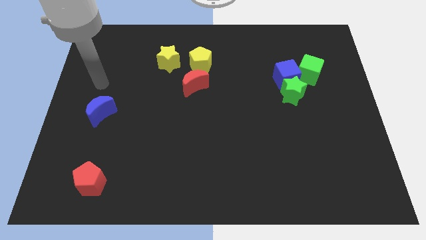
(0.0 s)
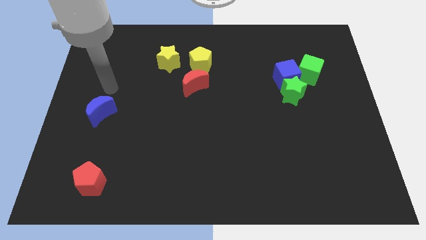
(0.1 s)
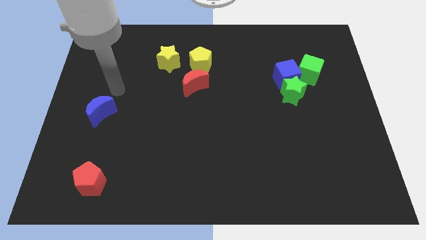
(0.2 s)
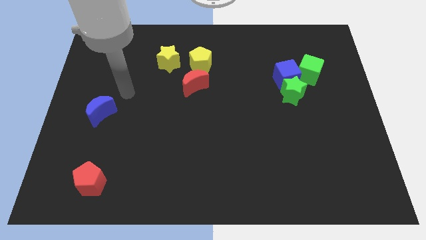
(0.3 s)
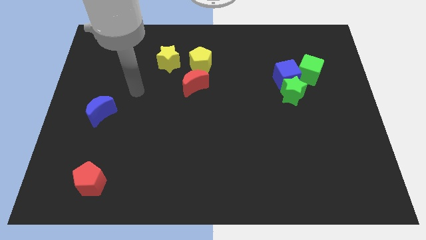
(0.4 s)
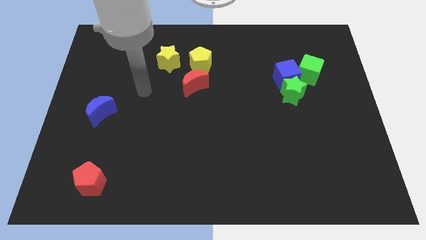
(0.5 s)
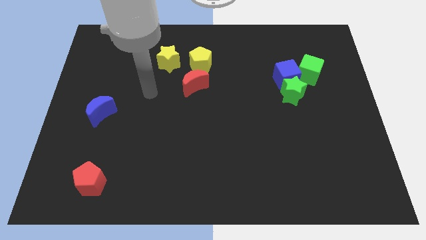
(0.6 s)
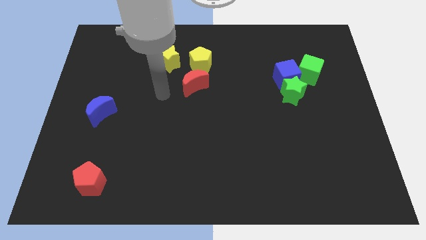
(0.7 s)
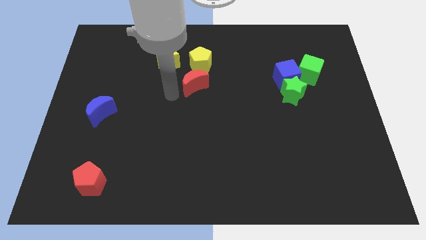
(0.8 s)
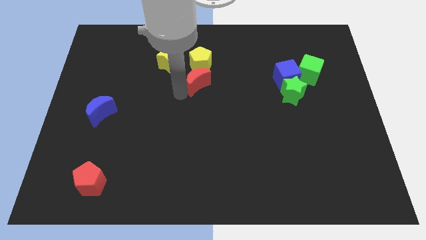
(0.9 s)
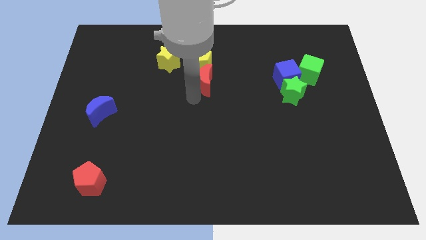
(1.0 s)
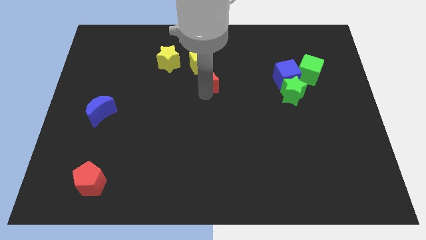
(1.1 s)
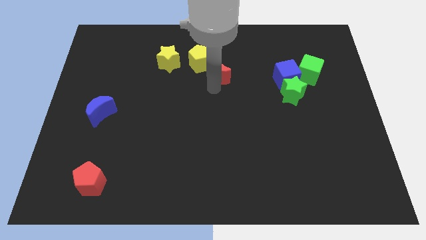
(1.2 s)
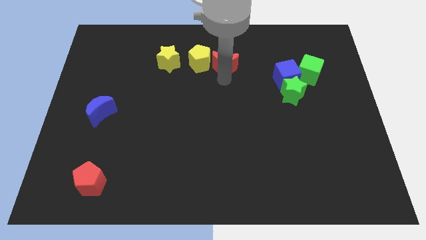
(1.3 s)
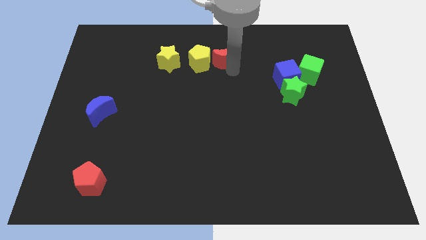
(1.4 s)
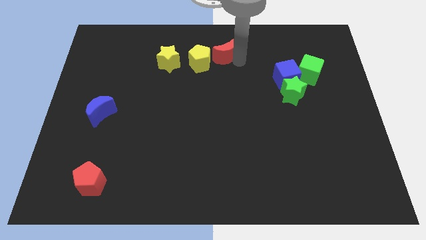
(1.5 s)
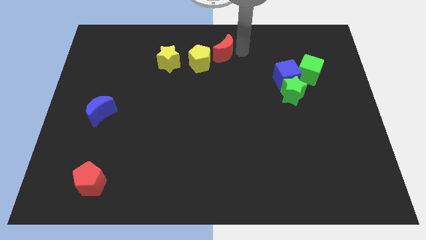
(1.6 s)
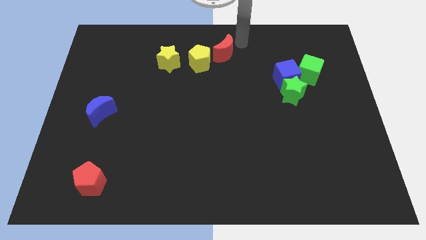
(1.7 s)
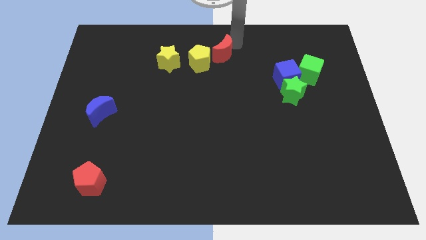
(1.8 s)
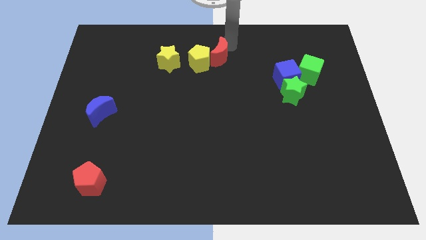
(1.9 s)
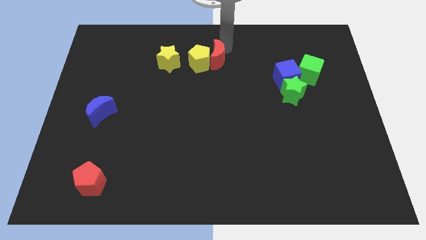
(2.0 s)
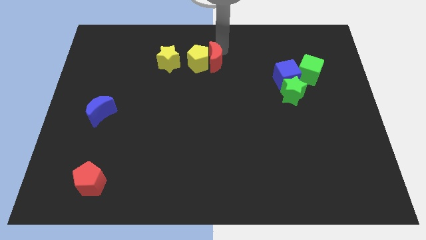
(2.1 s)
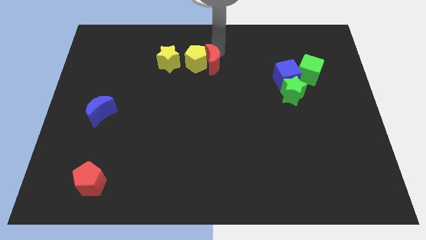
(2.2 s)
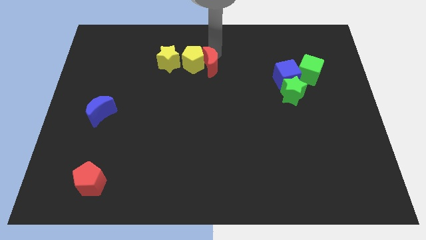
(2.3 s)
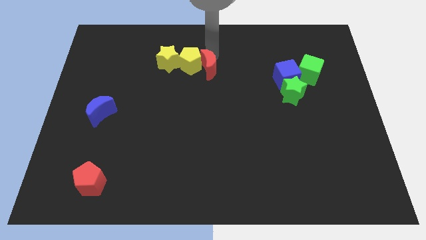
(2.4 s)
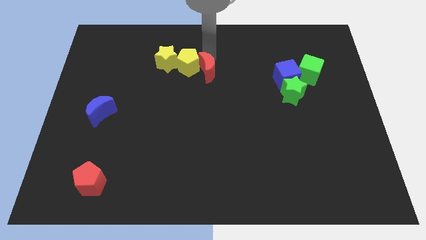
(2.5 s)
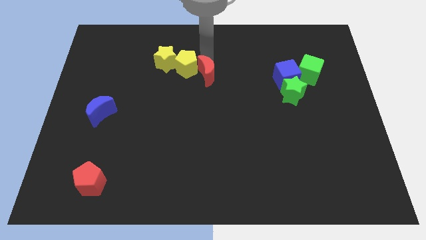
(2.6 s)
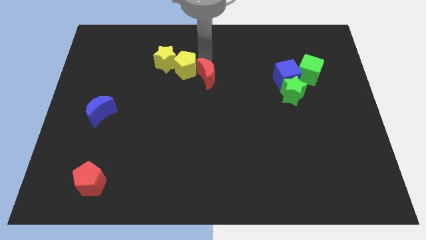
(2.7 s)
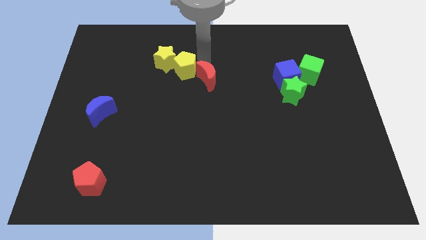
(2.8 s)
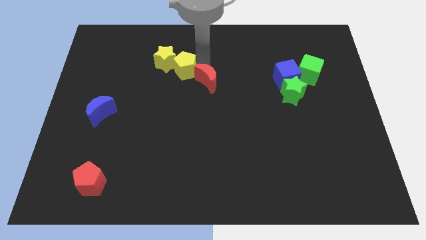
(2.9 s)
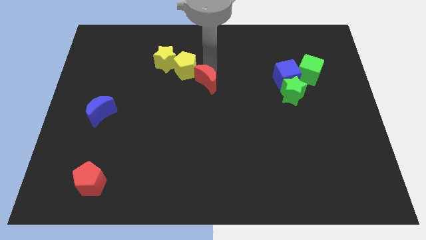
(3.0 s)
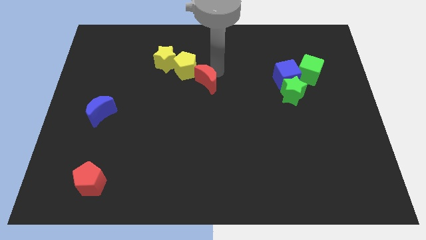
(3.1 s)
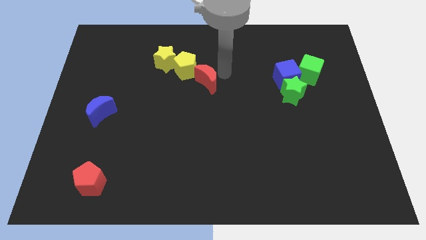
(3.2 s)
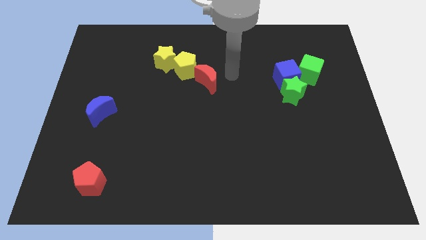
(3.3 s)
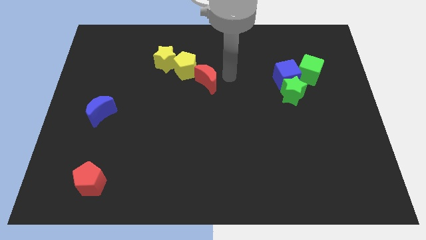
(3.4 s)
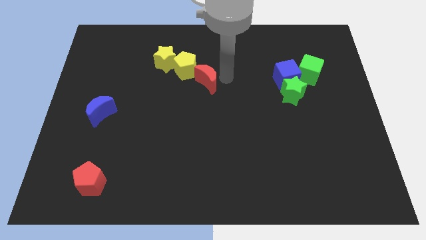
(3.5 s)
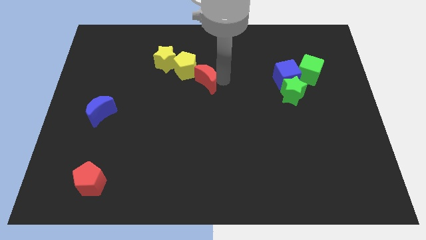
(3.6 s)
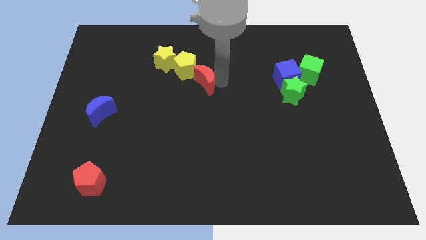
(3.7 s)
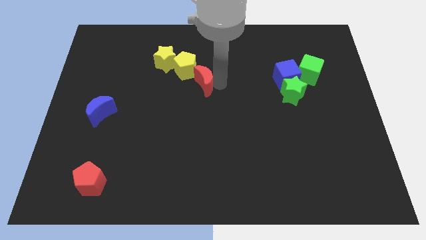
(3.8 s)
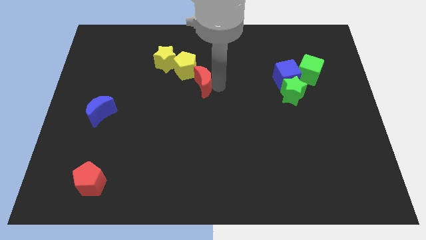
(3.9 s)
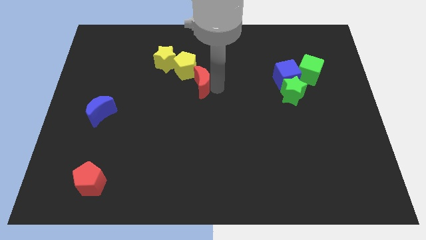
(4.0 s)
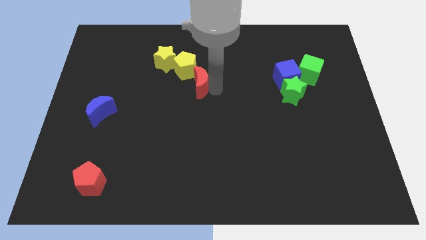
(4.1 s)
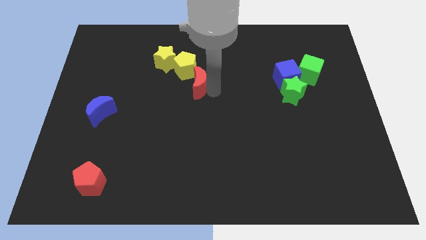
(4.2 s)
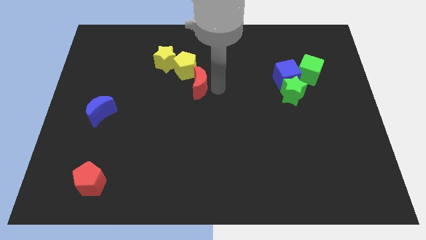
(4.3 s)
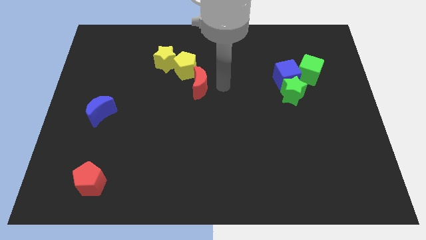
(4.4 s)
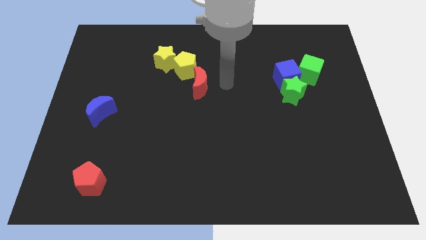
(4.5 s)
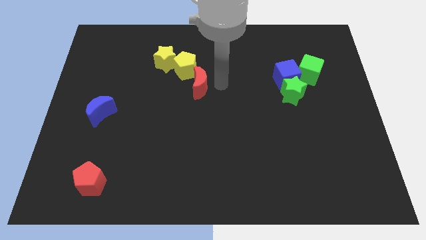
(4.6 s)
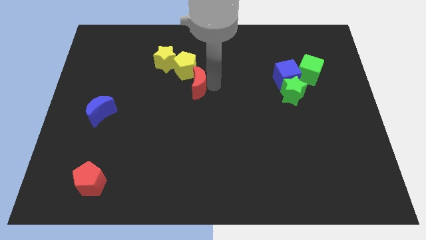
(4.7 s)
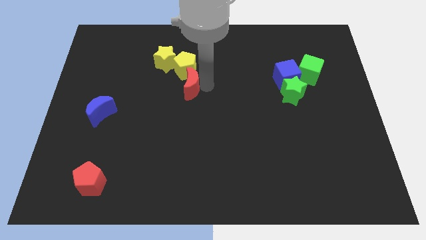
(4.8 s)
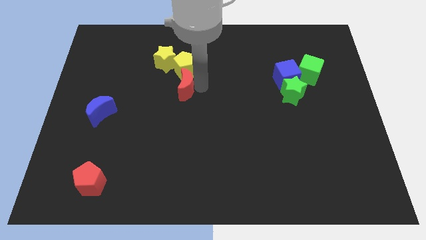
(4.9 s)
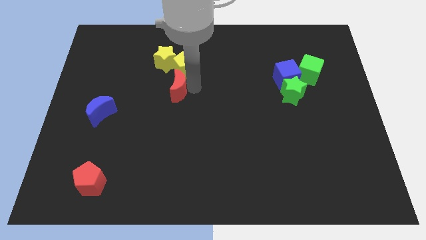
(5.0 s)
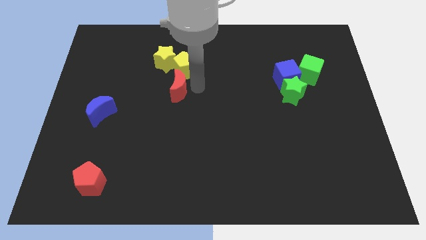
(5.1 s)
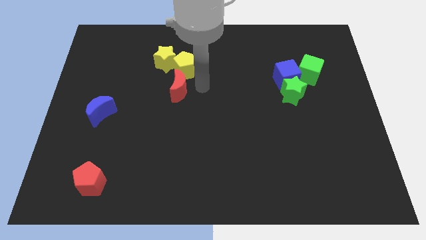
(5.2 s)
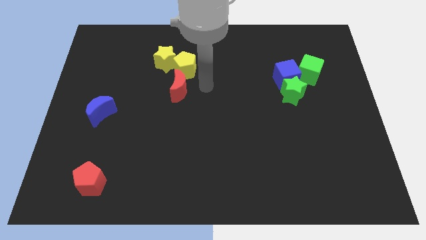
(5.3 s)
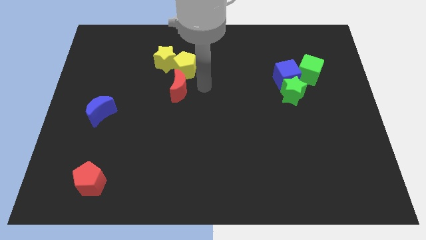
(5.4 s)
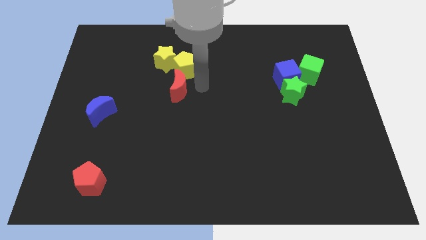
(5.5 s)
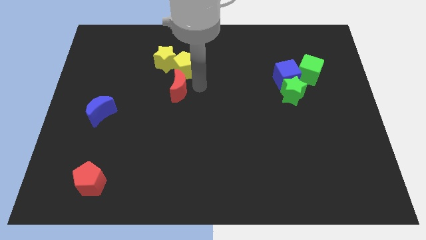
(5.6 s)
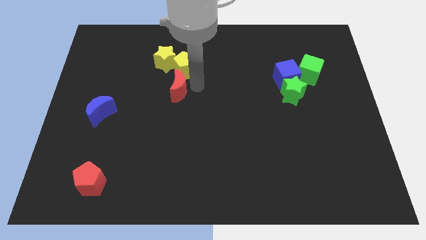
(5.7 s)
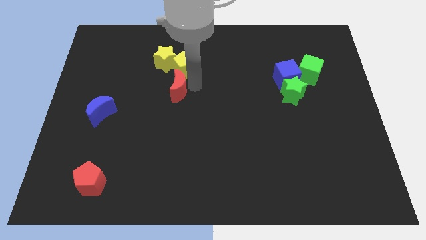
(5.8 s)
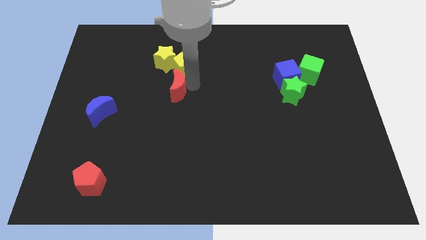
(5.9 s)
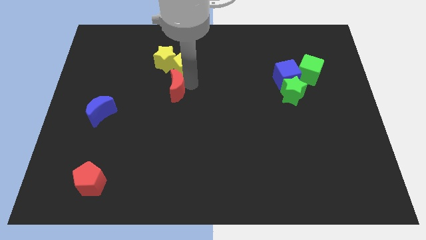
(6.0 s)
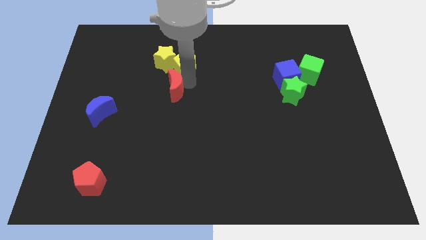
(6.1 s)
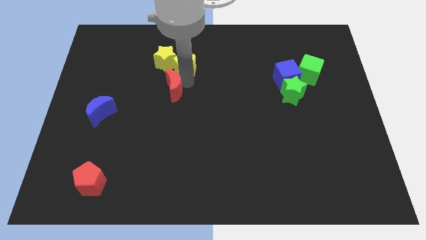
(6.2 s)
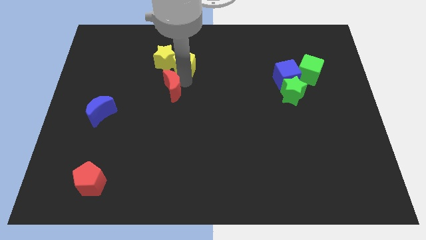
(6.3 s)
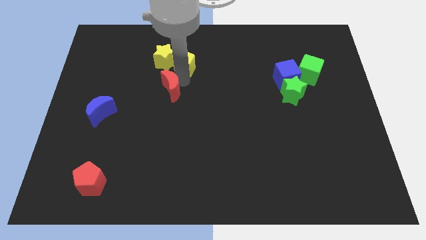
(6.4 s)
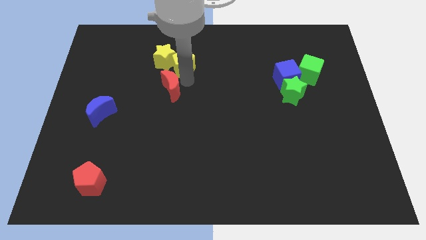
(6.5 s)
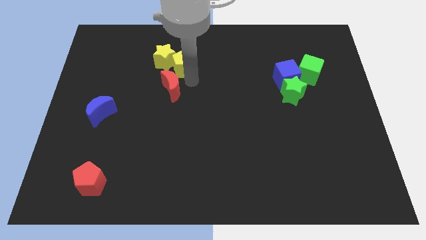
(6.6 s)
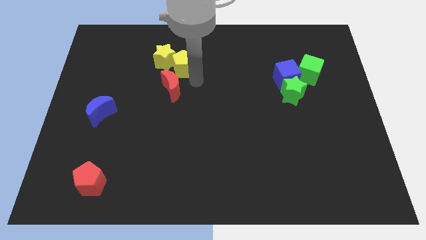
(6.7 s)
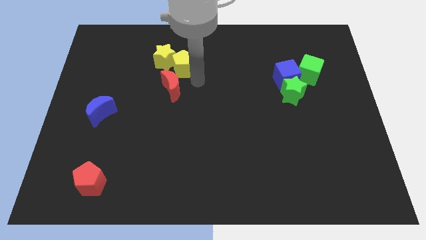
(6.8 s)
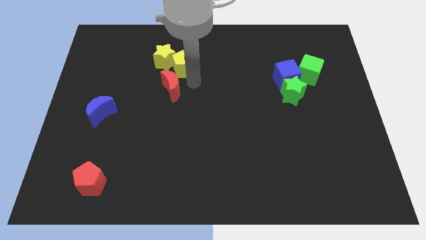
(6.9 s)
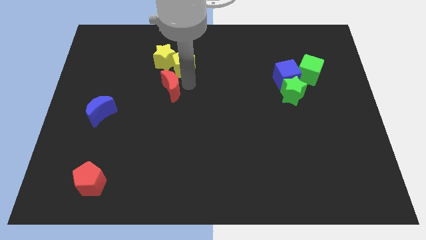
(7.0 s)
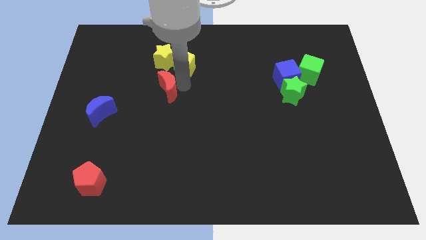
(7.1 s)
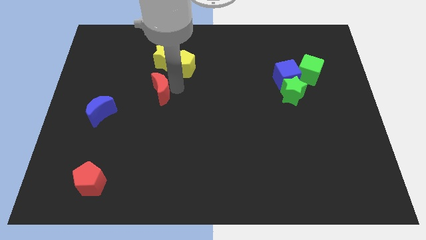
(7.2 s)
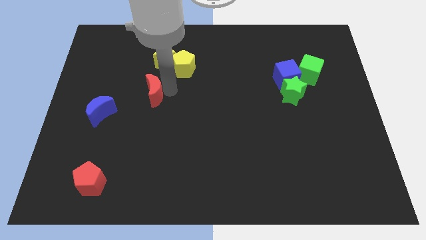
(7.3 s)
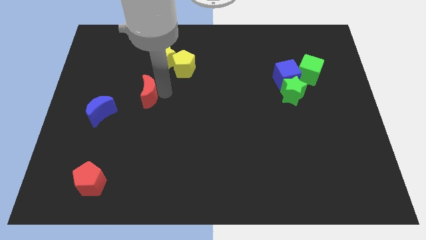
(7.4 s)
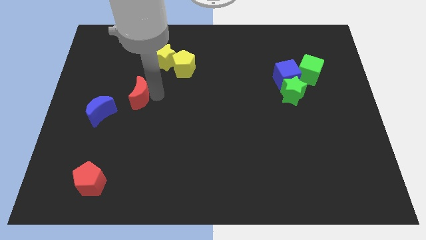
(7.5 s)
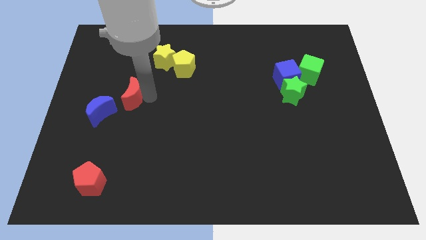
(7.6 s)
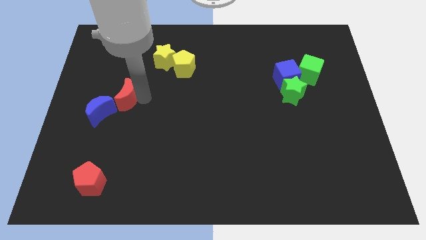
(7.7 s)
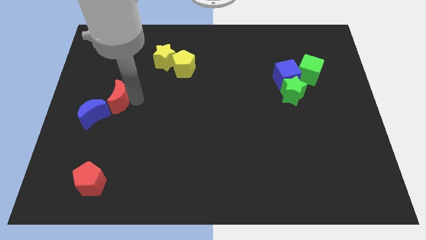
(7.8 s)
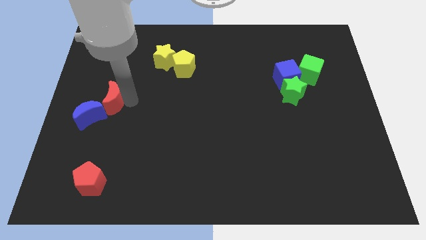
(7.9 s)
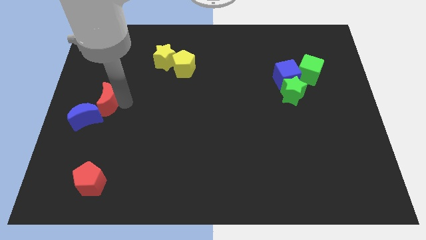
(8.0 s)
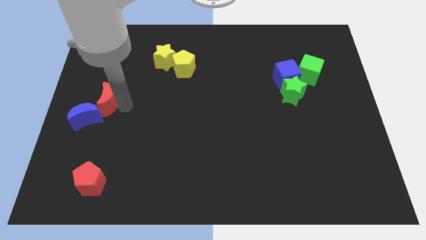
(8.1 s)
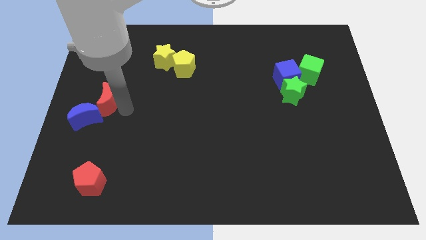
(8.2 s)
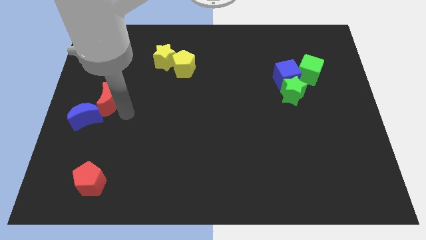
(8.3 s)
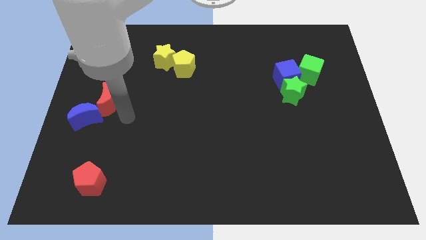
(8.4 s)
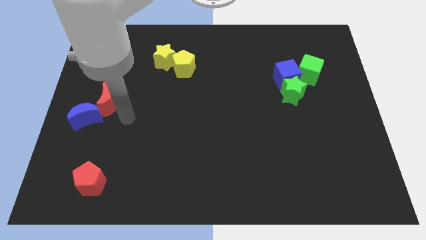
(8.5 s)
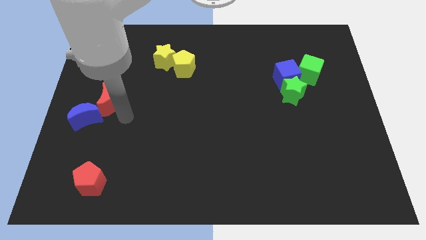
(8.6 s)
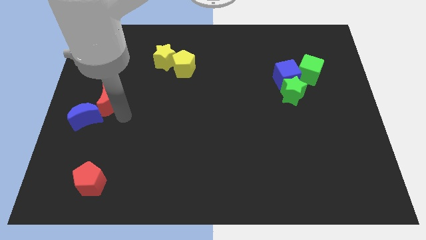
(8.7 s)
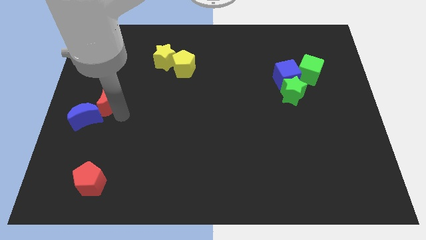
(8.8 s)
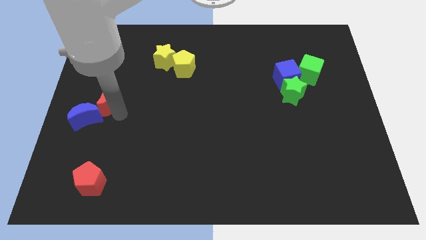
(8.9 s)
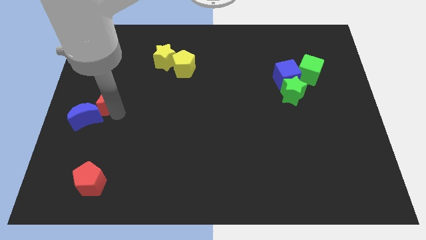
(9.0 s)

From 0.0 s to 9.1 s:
push the red moon to the left side
